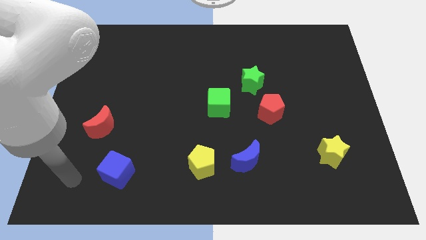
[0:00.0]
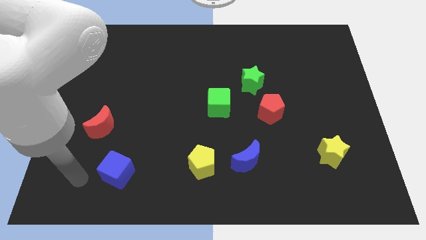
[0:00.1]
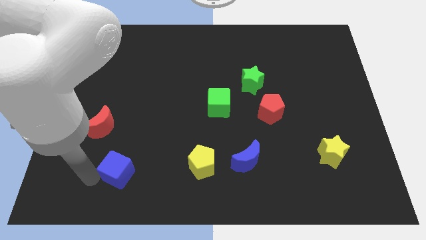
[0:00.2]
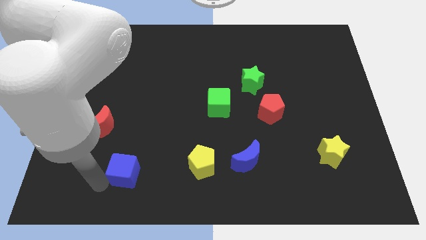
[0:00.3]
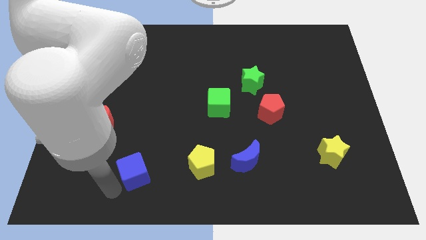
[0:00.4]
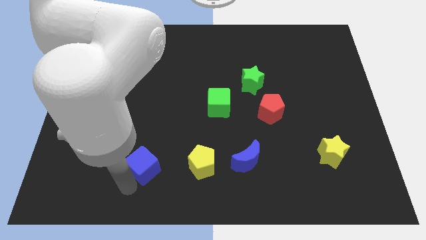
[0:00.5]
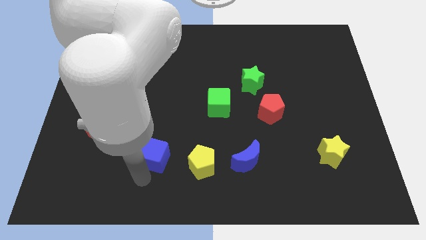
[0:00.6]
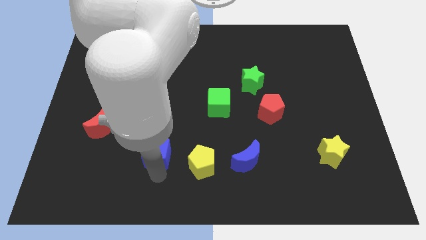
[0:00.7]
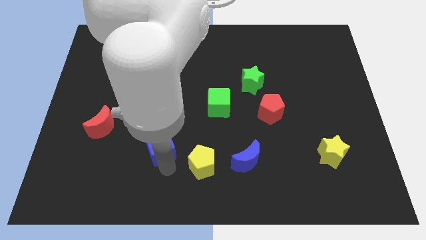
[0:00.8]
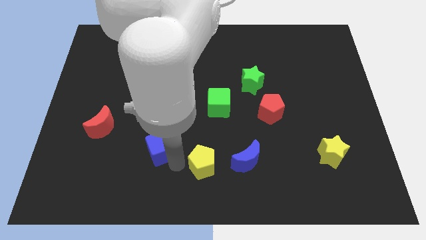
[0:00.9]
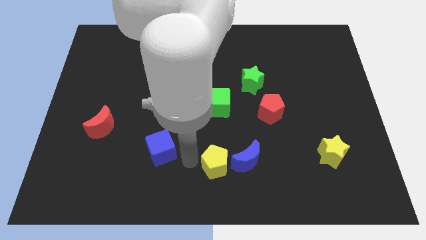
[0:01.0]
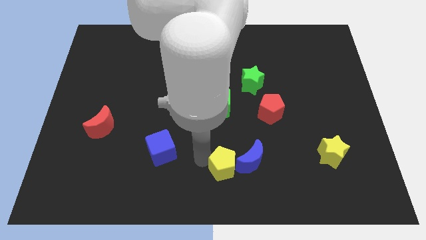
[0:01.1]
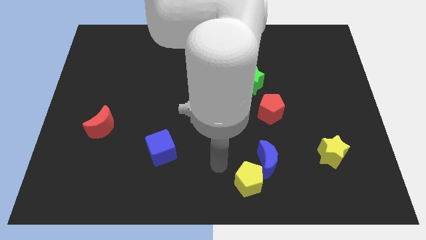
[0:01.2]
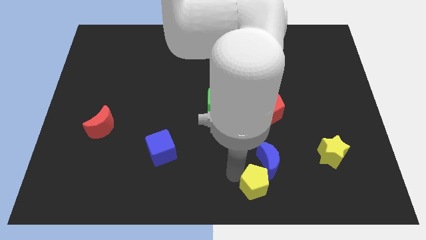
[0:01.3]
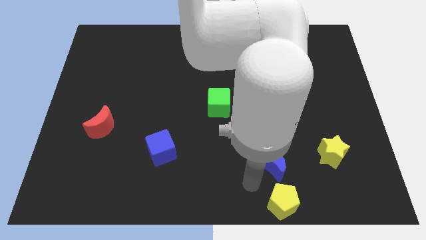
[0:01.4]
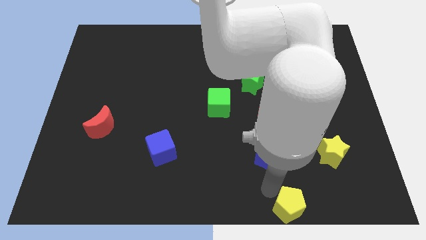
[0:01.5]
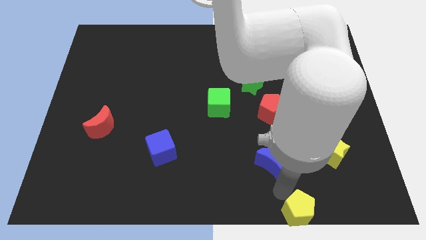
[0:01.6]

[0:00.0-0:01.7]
move the blue moon away from the yellow pentagon

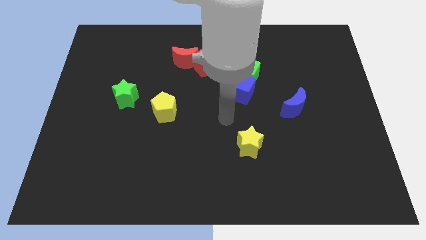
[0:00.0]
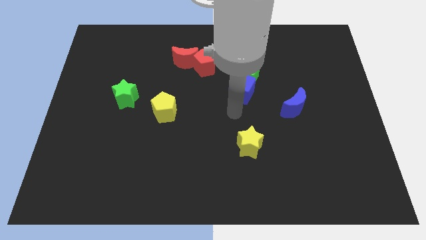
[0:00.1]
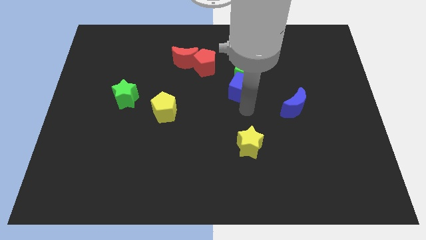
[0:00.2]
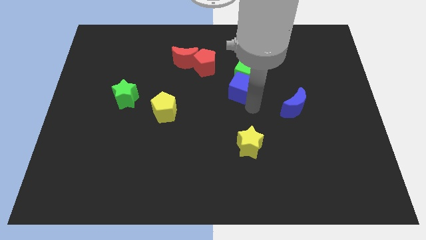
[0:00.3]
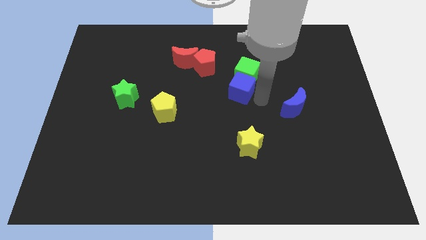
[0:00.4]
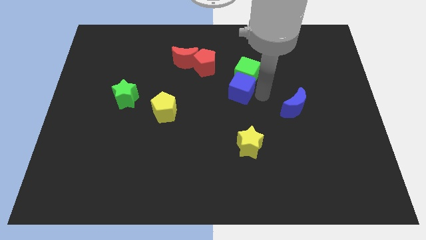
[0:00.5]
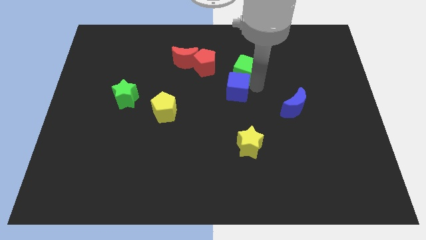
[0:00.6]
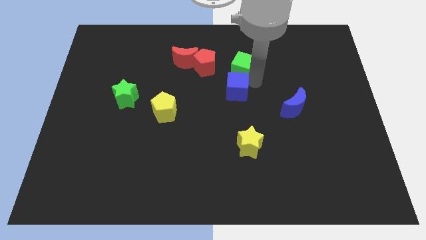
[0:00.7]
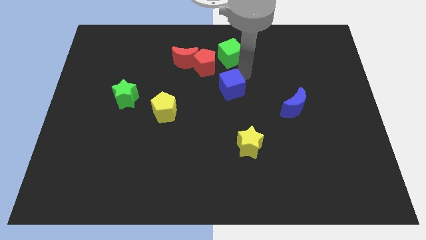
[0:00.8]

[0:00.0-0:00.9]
separate the blue cube from the green cube

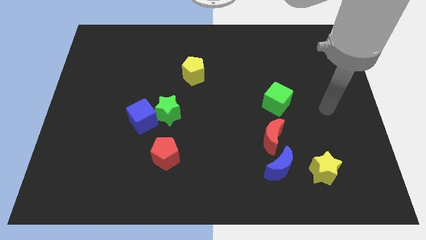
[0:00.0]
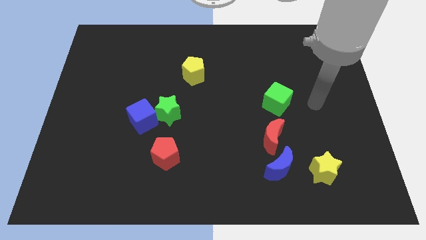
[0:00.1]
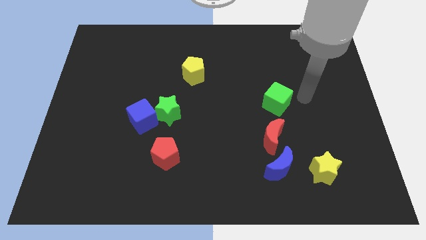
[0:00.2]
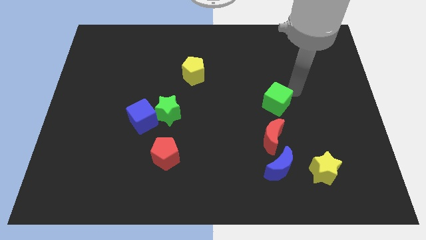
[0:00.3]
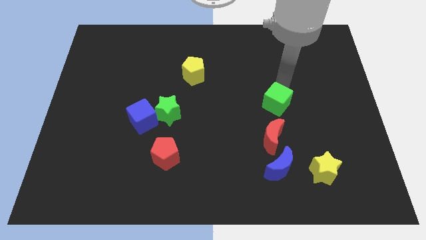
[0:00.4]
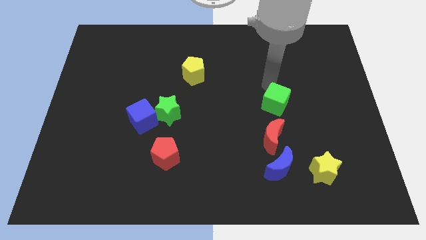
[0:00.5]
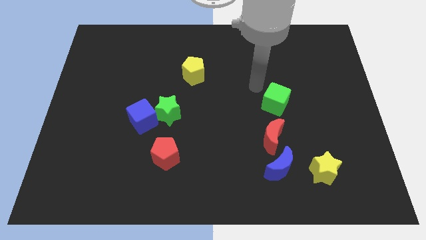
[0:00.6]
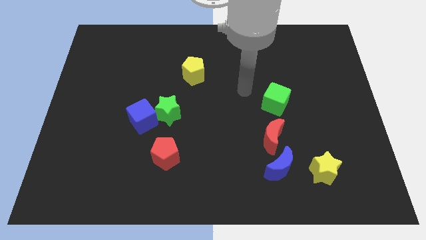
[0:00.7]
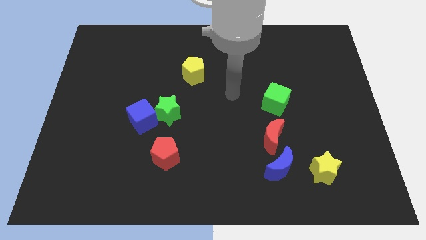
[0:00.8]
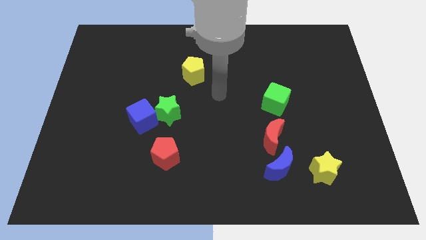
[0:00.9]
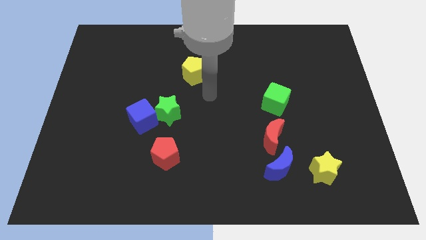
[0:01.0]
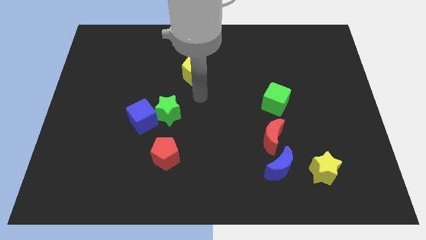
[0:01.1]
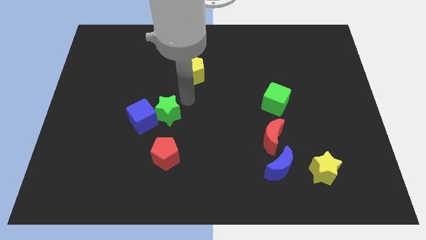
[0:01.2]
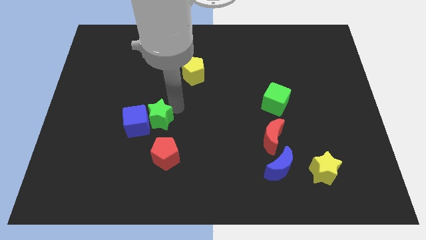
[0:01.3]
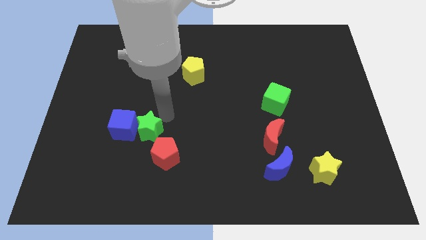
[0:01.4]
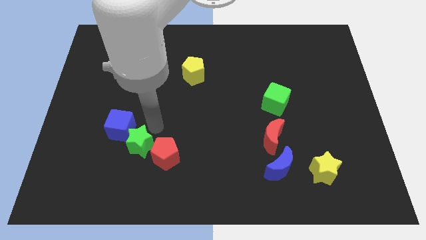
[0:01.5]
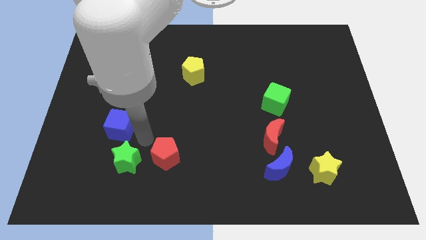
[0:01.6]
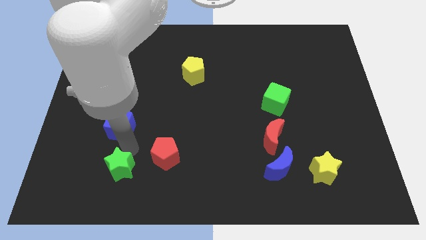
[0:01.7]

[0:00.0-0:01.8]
pull the blue cube apart from the green star

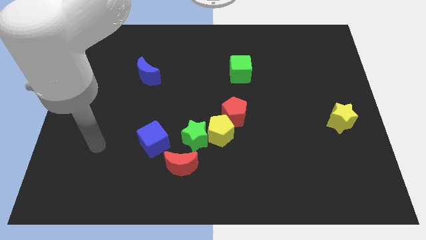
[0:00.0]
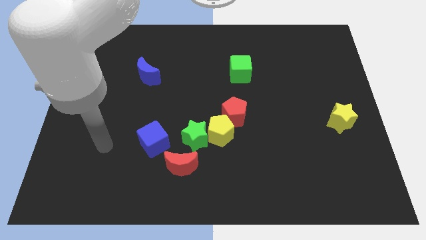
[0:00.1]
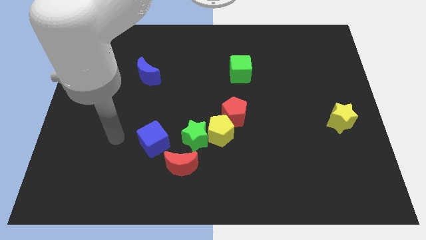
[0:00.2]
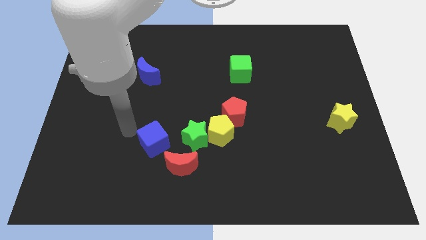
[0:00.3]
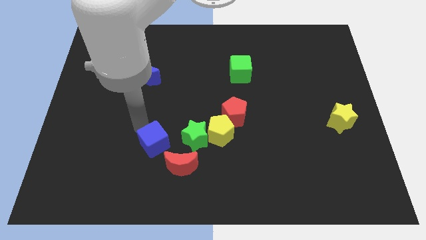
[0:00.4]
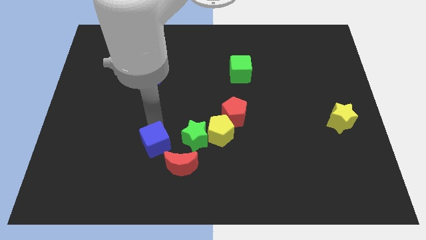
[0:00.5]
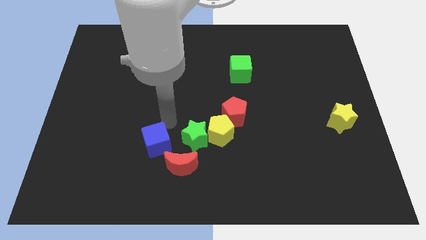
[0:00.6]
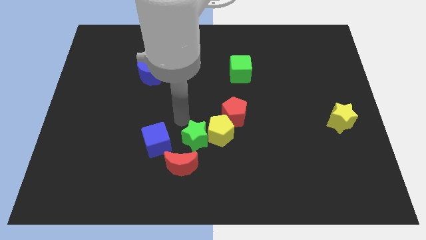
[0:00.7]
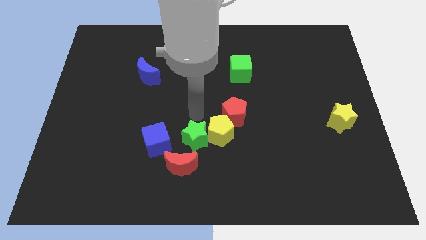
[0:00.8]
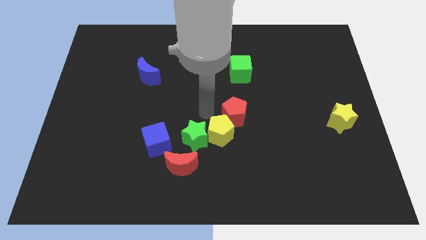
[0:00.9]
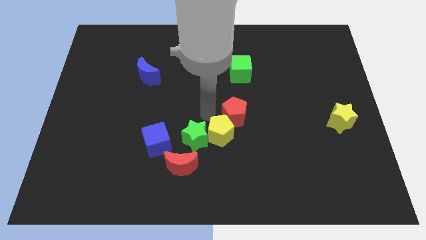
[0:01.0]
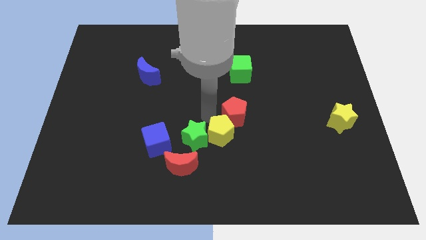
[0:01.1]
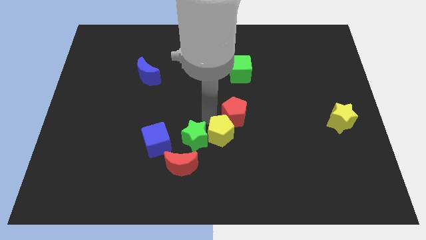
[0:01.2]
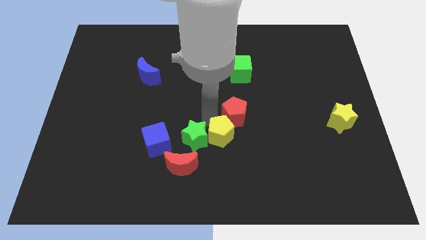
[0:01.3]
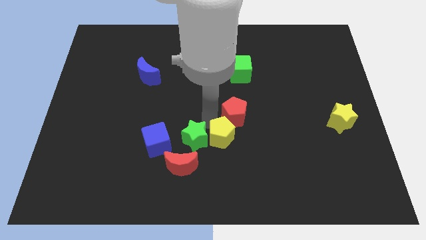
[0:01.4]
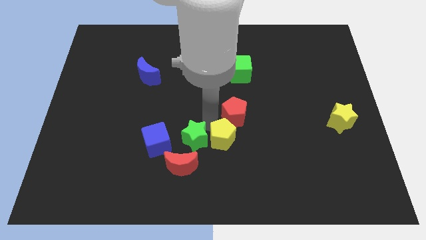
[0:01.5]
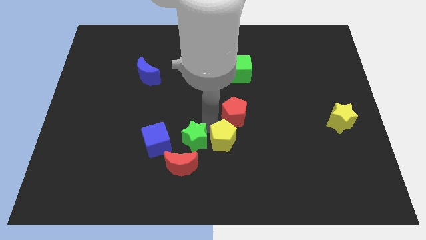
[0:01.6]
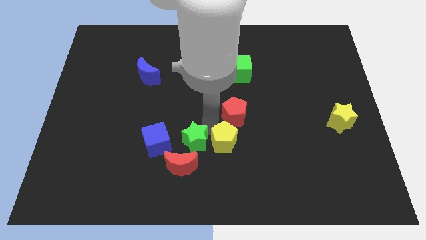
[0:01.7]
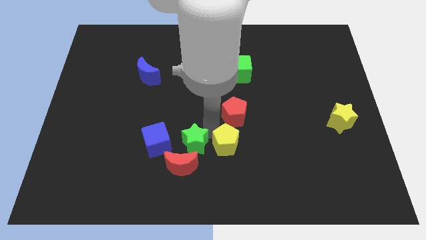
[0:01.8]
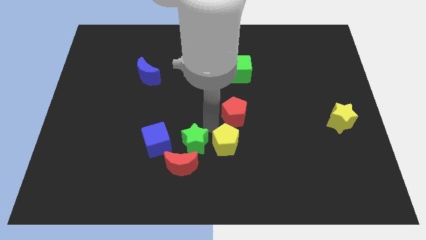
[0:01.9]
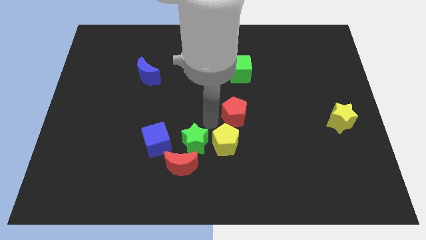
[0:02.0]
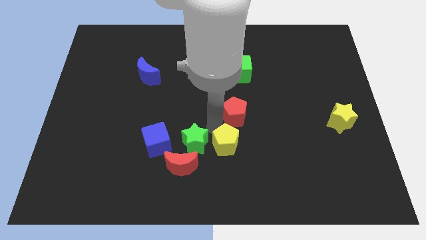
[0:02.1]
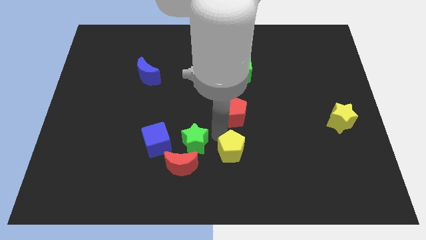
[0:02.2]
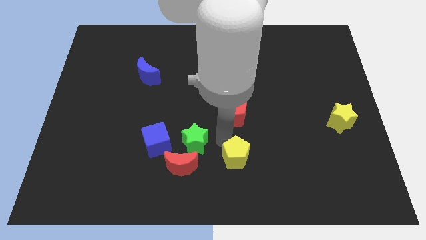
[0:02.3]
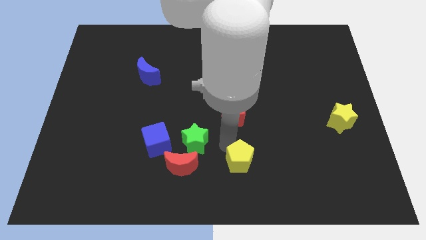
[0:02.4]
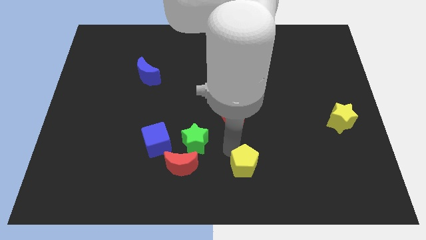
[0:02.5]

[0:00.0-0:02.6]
move the yellow pentagon away from the green star and red pentagon

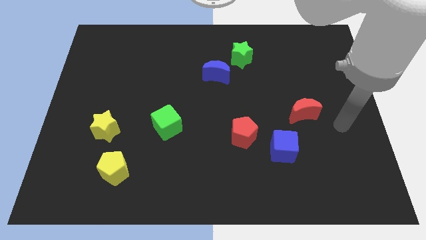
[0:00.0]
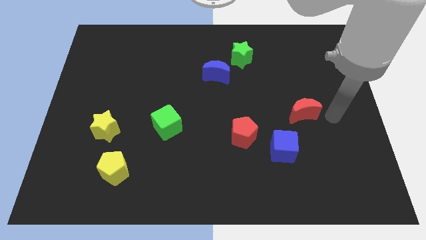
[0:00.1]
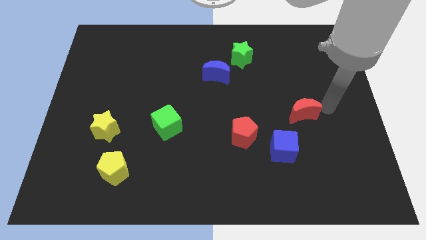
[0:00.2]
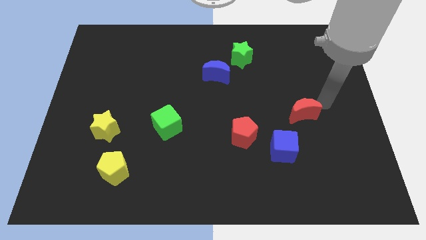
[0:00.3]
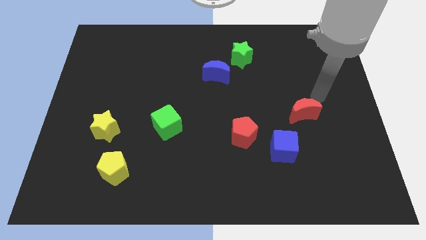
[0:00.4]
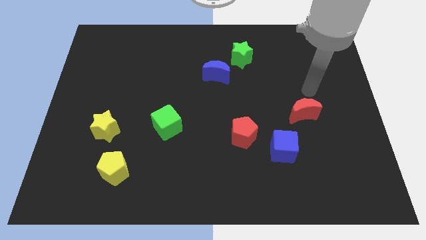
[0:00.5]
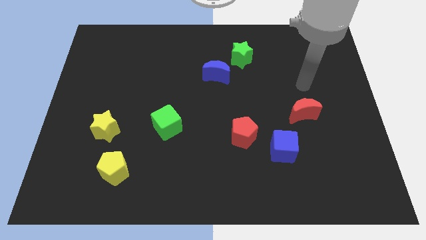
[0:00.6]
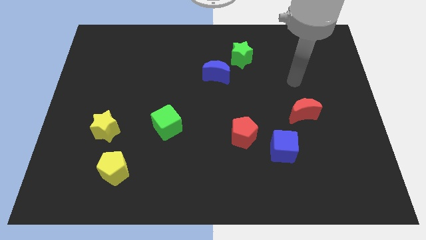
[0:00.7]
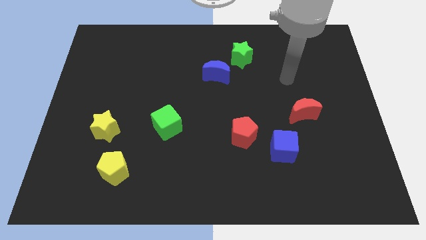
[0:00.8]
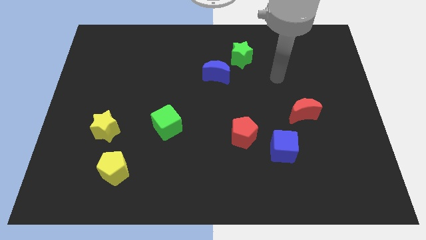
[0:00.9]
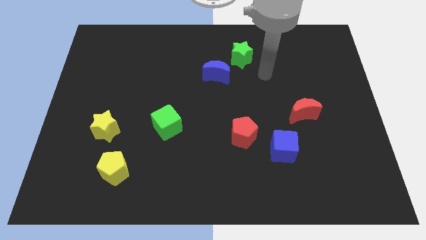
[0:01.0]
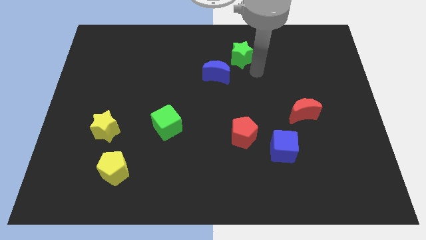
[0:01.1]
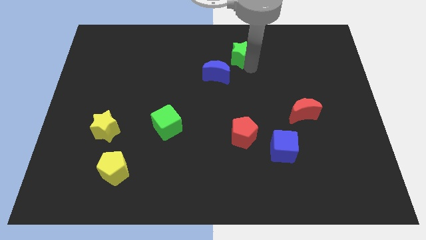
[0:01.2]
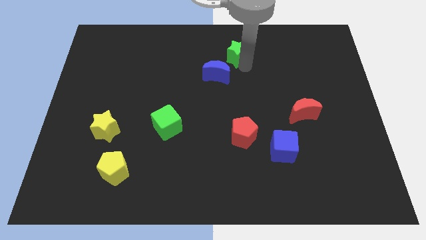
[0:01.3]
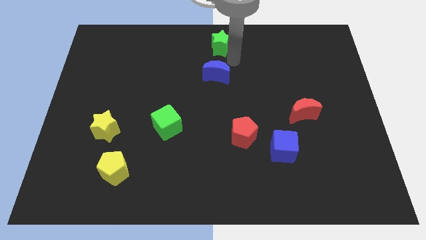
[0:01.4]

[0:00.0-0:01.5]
move the blue moon away from the green star

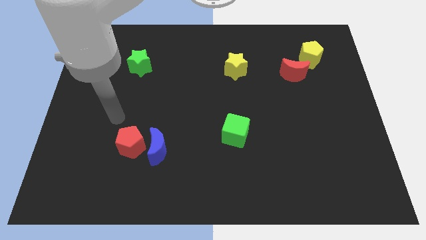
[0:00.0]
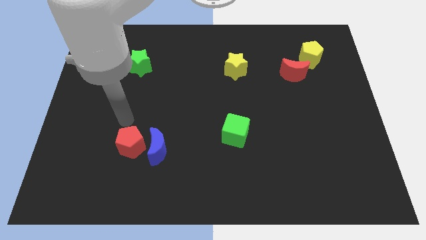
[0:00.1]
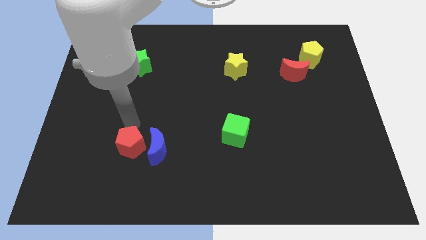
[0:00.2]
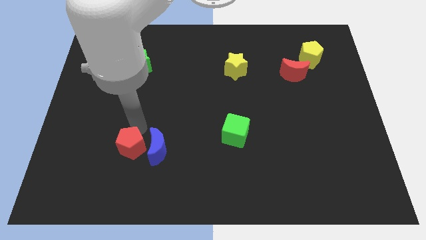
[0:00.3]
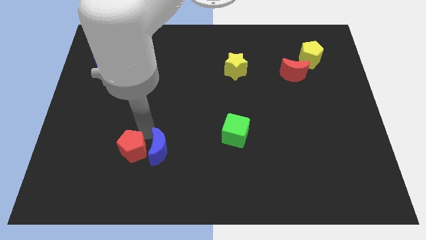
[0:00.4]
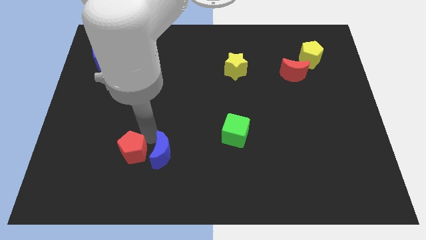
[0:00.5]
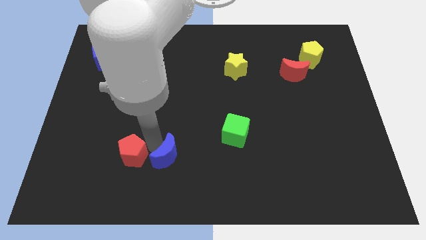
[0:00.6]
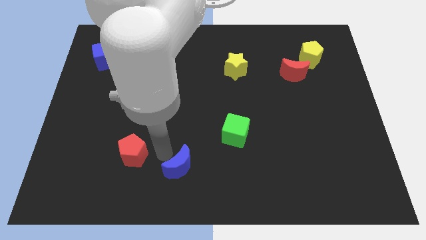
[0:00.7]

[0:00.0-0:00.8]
separate the red pentagon from the blue moon
